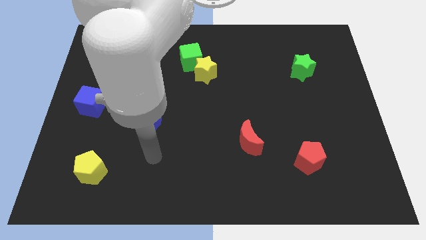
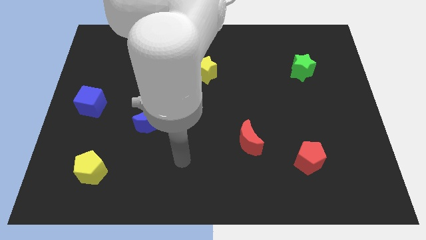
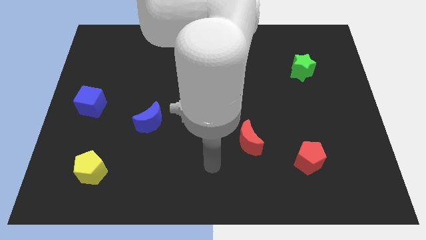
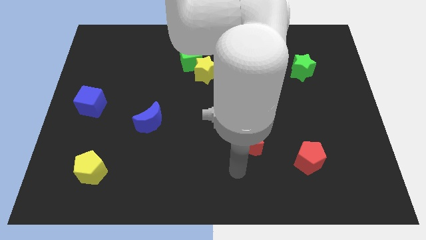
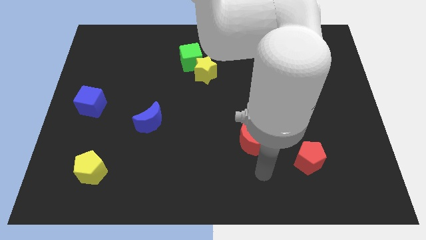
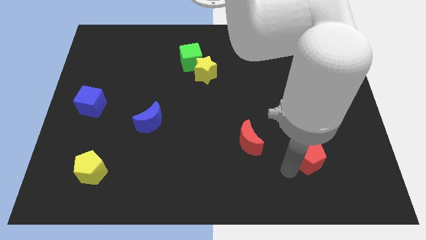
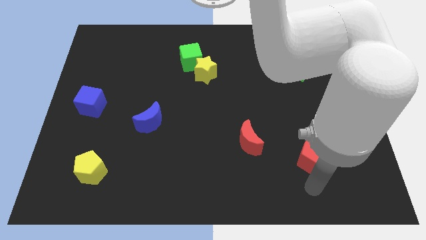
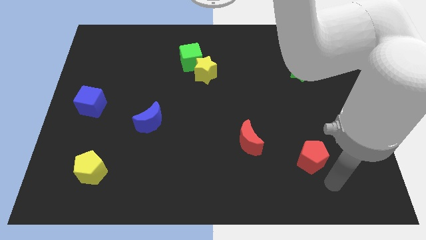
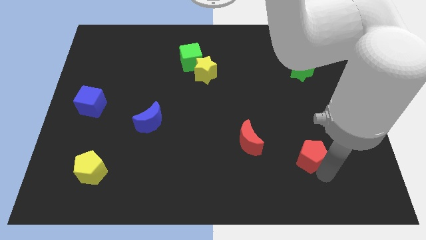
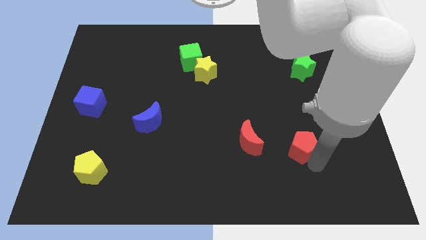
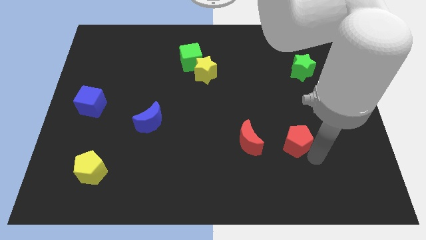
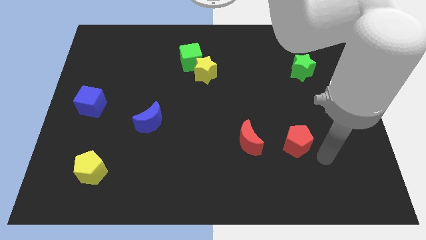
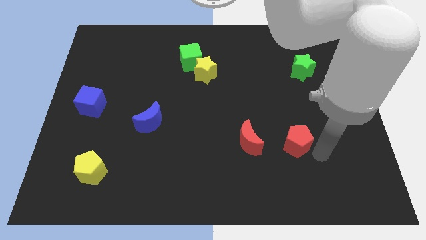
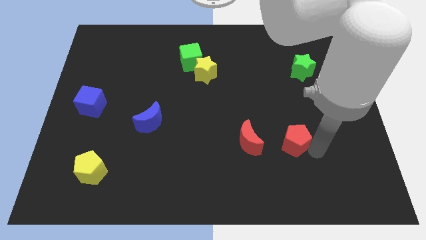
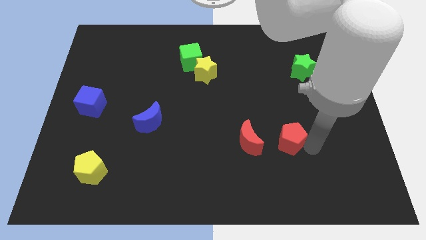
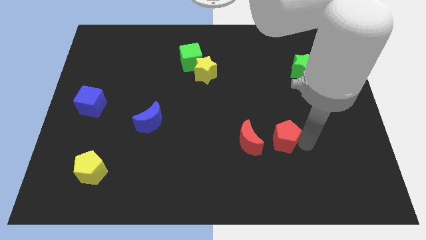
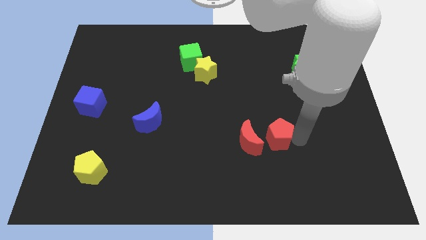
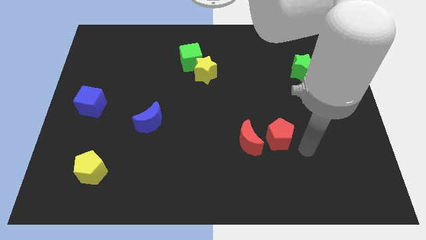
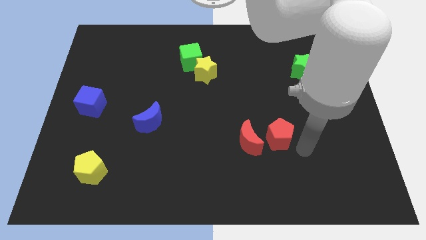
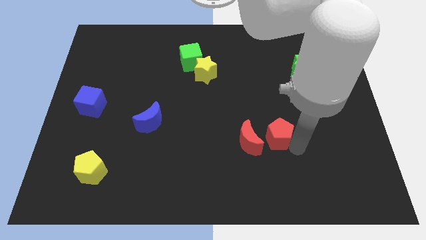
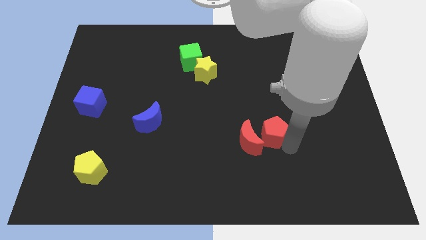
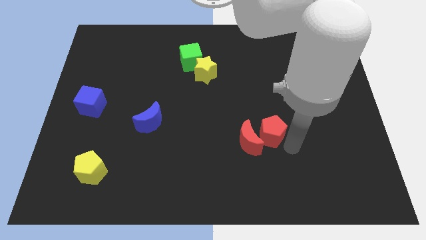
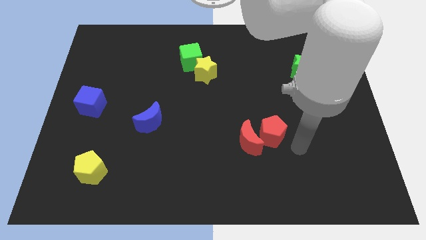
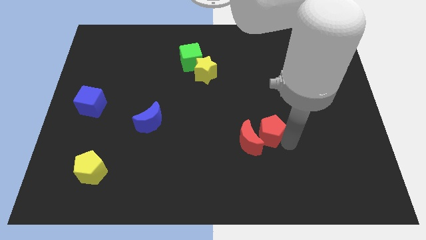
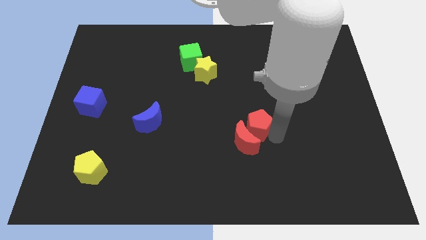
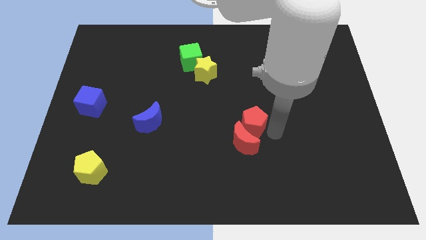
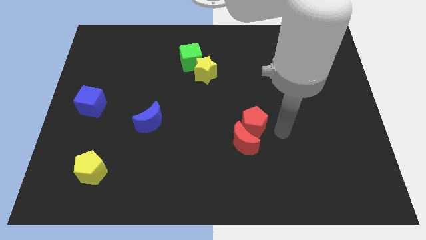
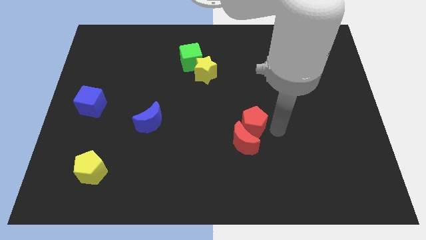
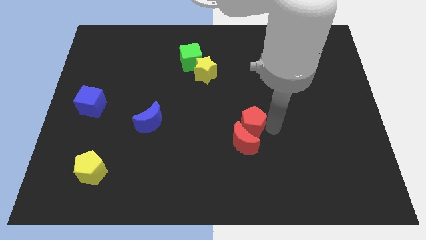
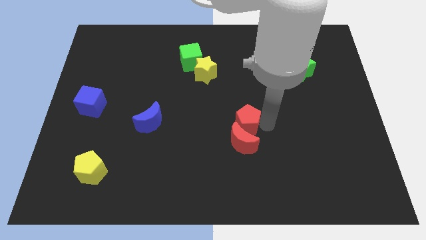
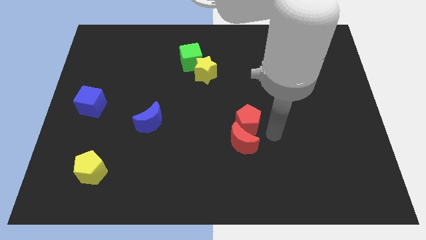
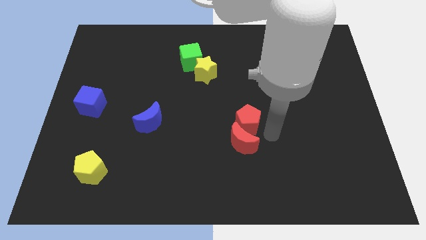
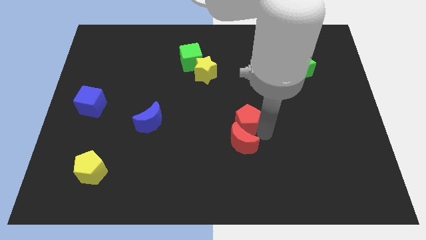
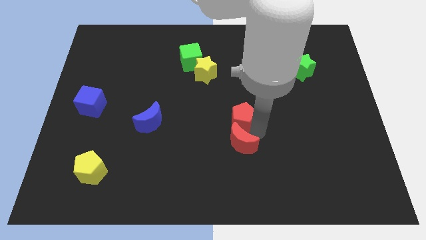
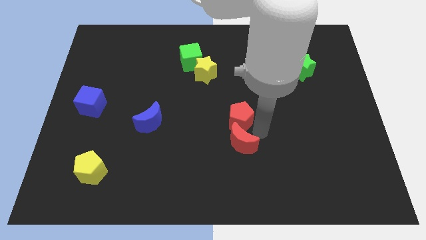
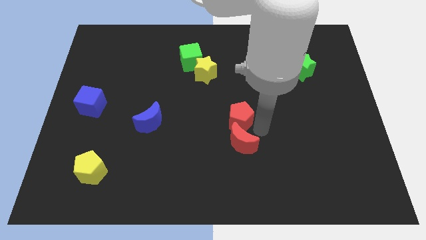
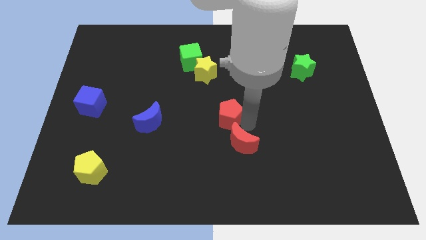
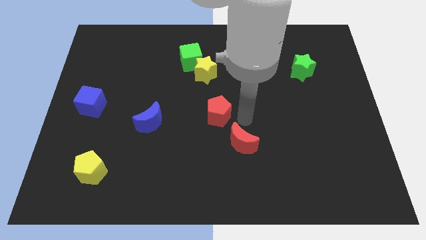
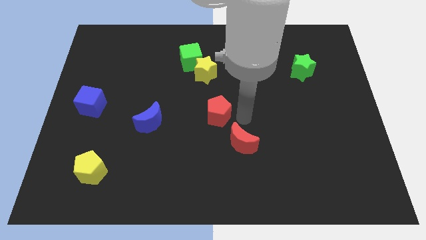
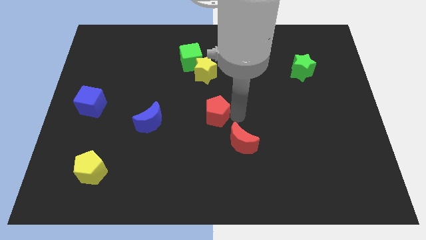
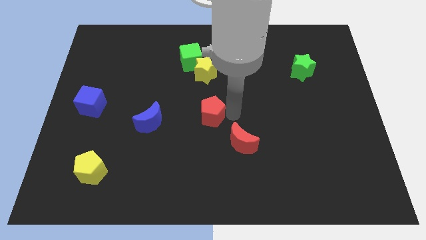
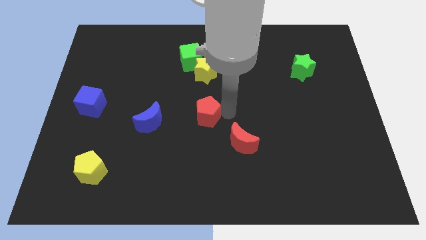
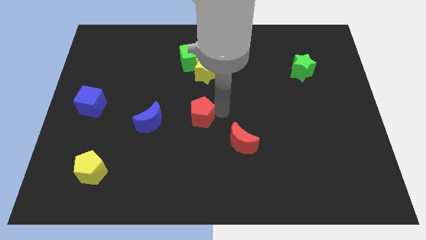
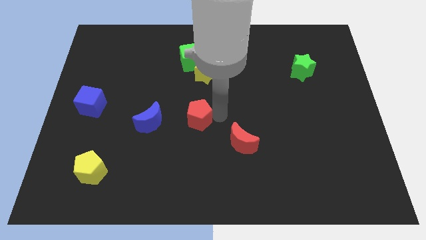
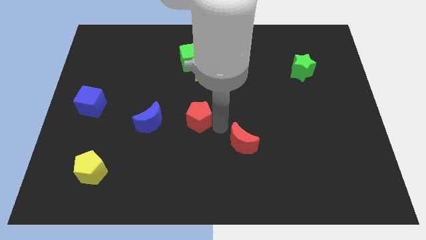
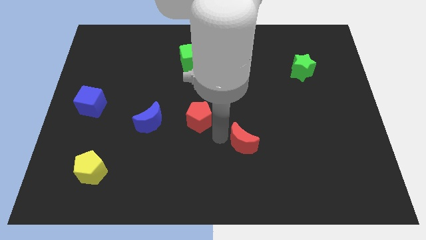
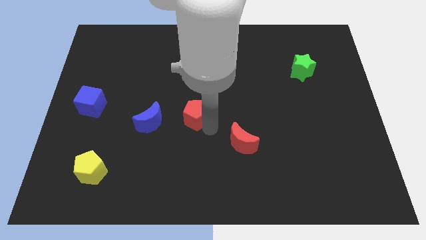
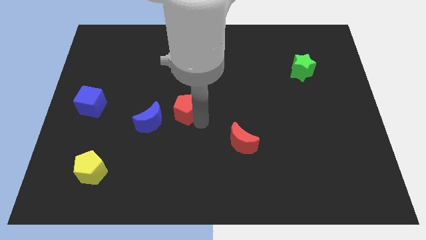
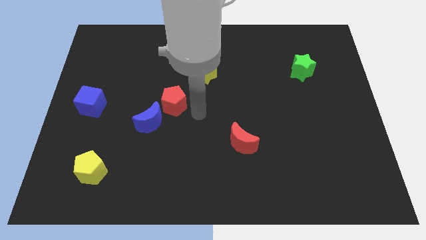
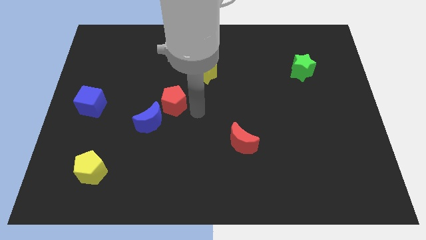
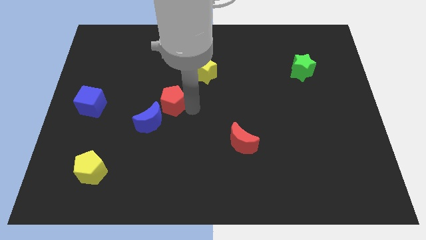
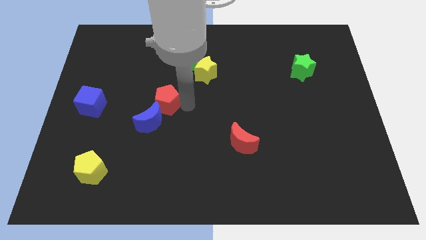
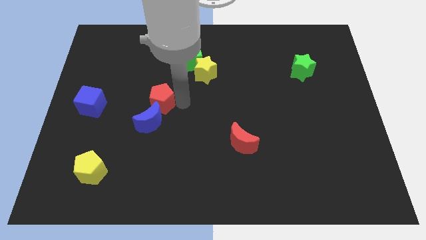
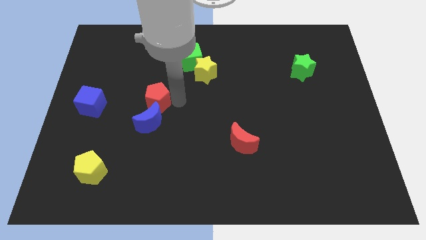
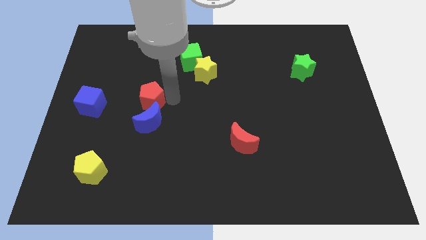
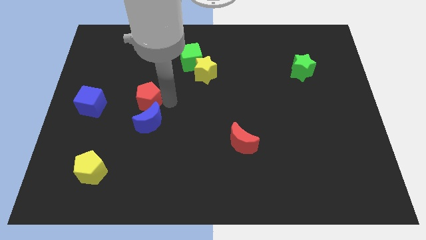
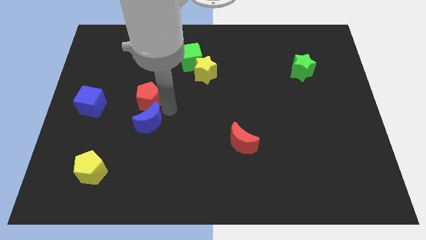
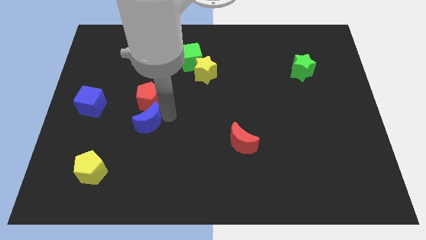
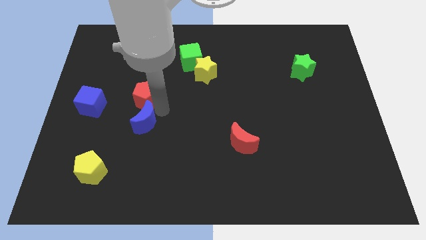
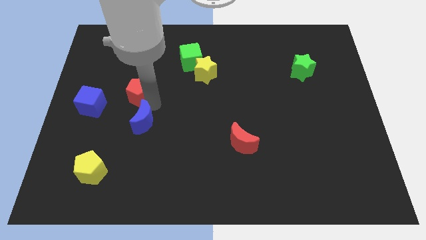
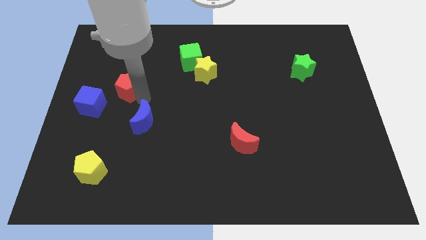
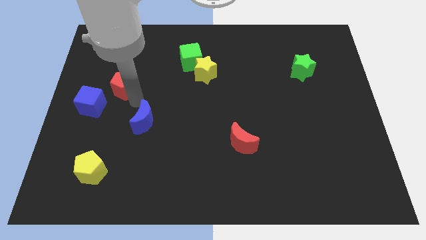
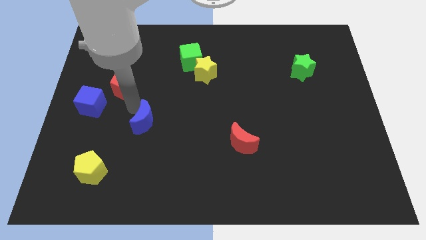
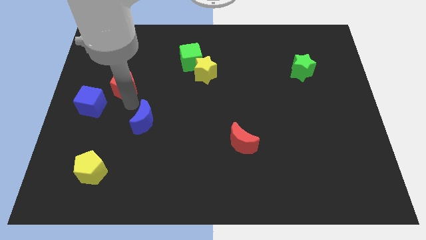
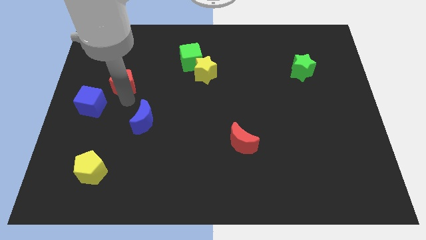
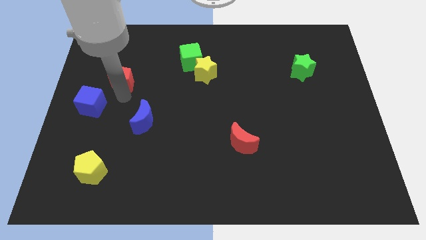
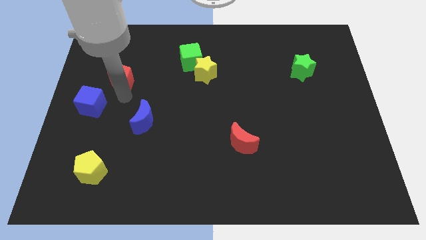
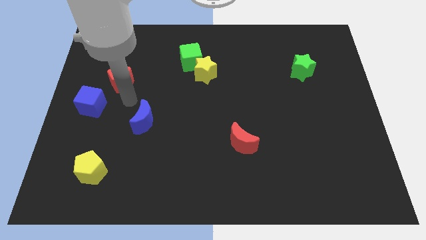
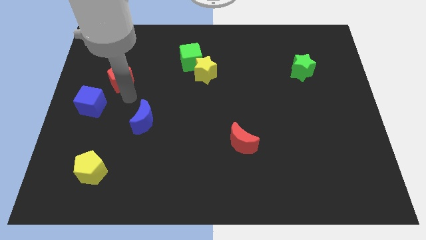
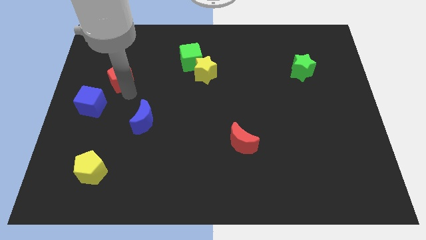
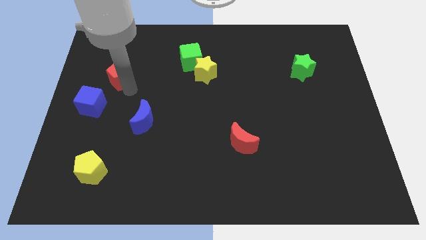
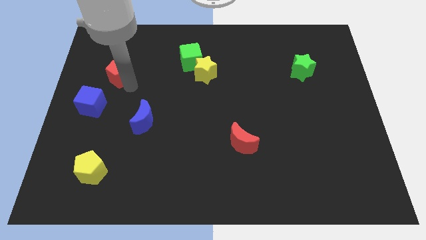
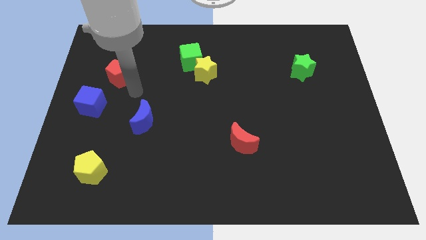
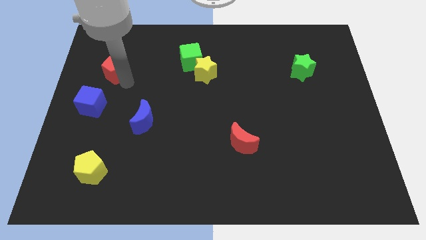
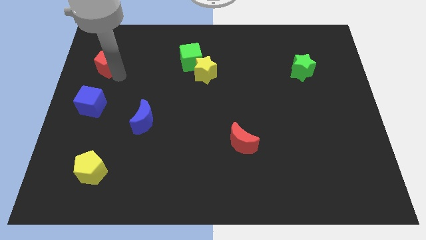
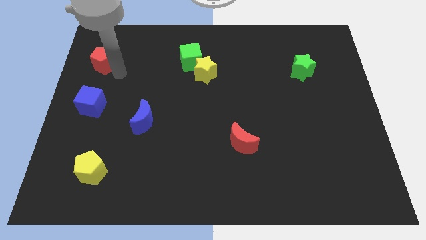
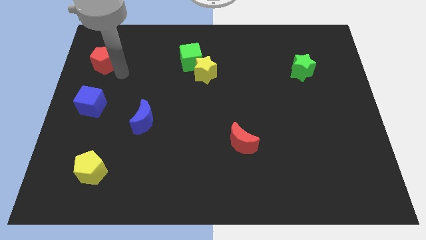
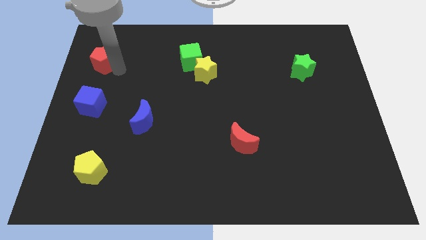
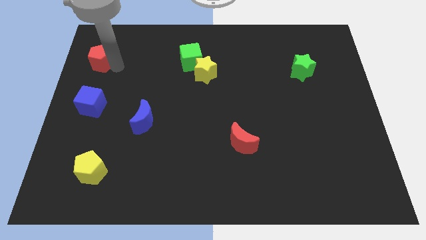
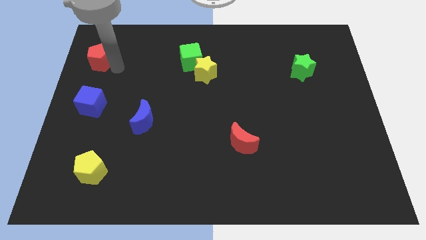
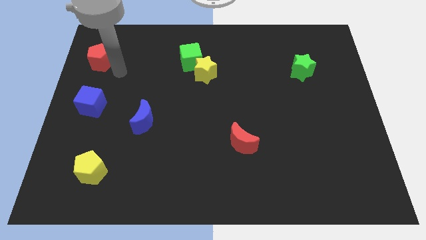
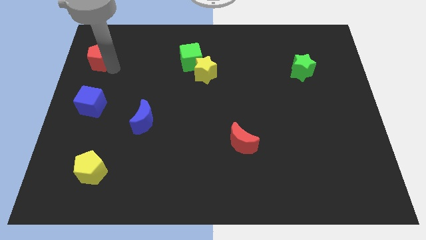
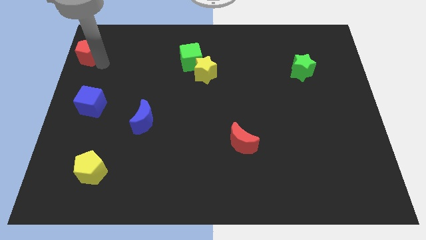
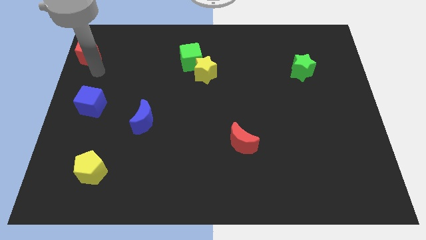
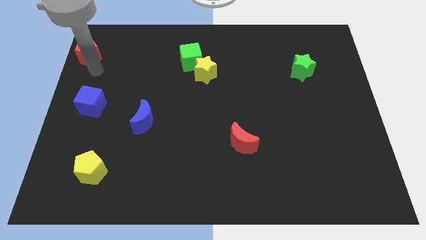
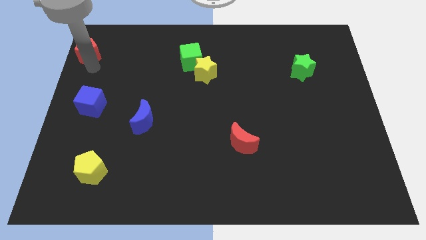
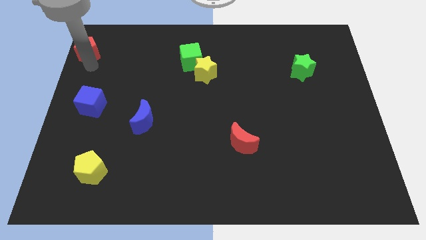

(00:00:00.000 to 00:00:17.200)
slide the red pentagon to the top left
